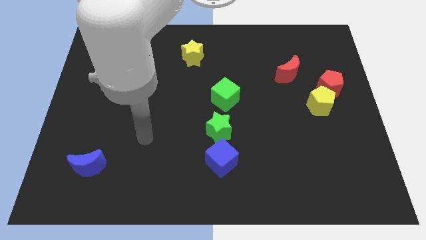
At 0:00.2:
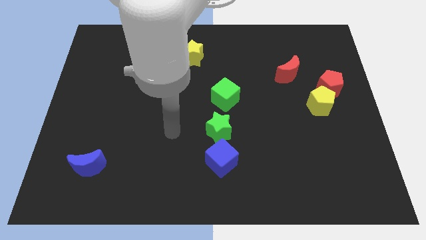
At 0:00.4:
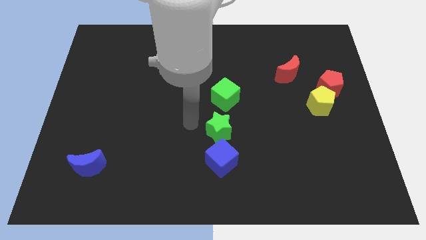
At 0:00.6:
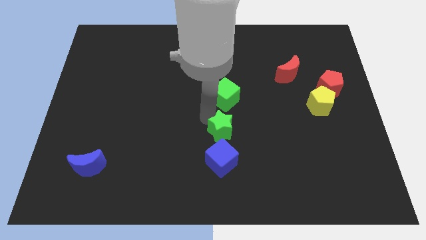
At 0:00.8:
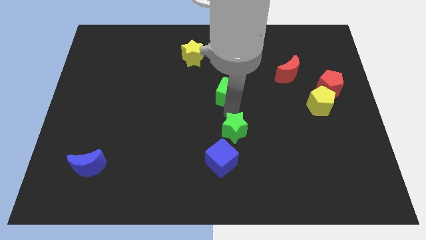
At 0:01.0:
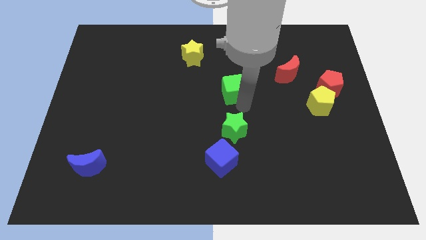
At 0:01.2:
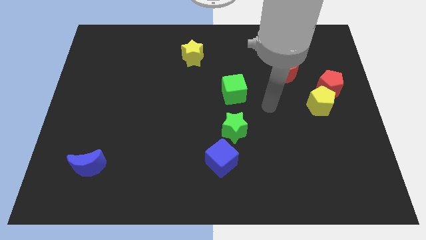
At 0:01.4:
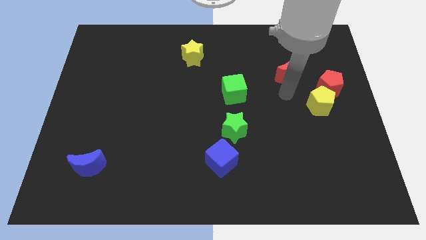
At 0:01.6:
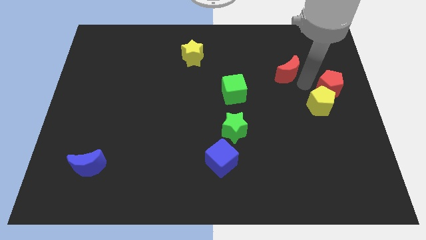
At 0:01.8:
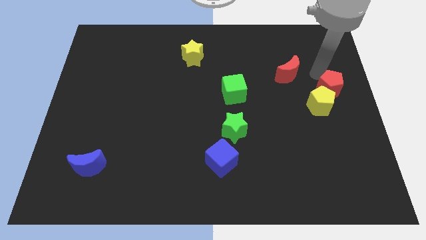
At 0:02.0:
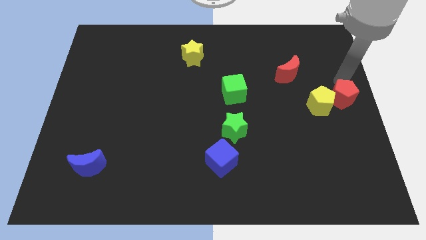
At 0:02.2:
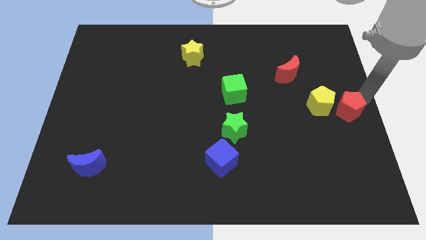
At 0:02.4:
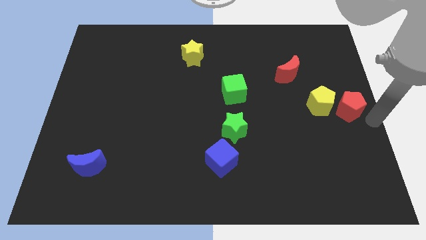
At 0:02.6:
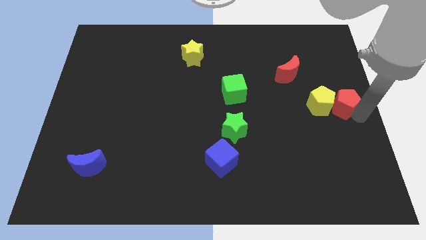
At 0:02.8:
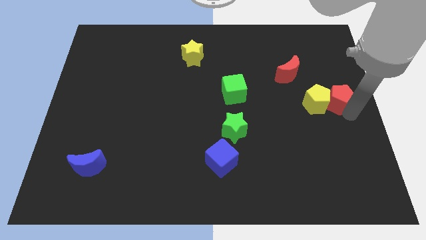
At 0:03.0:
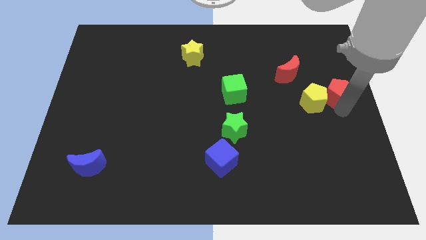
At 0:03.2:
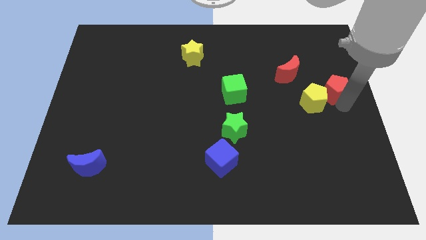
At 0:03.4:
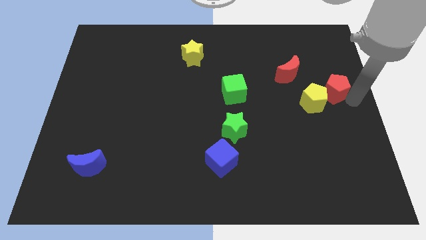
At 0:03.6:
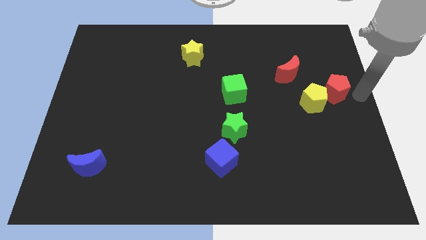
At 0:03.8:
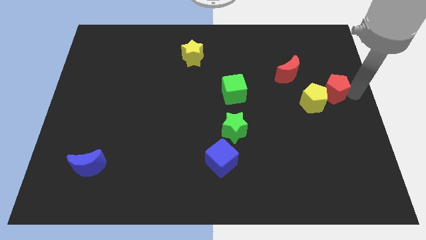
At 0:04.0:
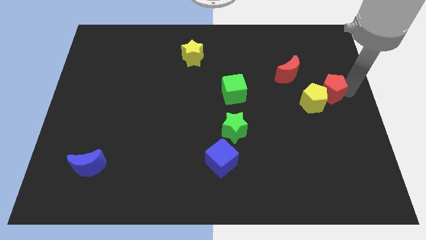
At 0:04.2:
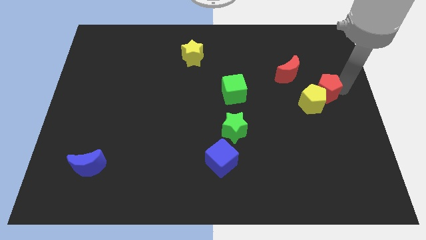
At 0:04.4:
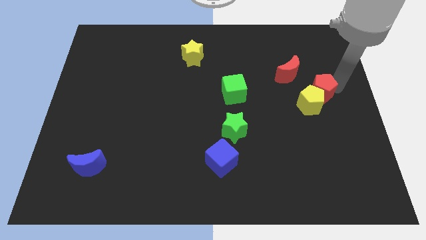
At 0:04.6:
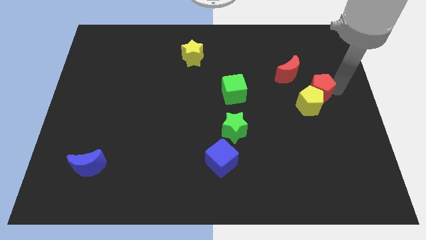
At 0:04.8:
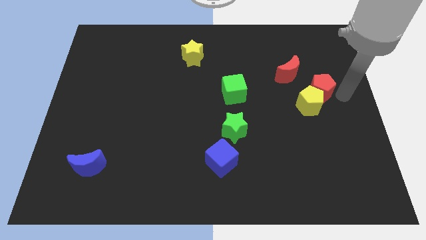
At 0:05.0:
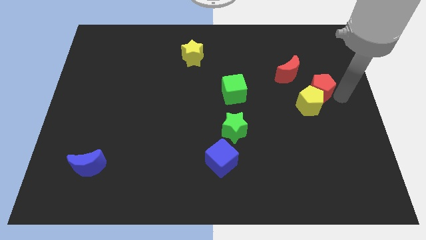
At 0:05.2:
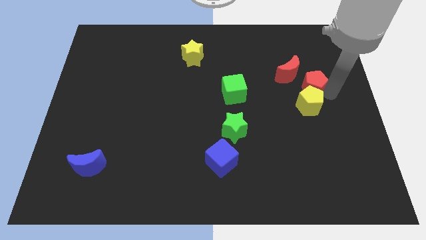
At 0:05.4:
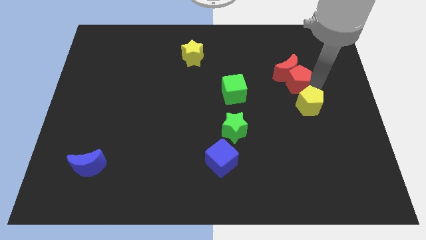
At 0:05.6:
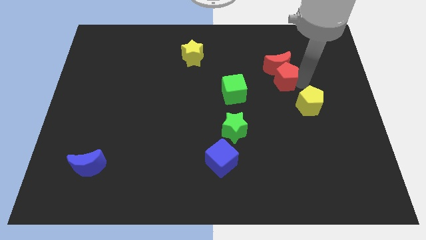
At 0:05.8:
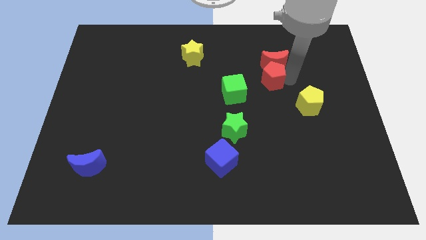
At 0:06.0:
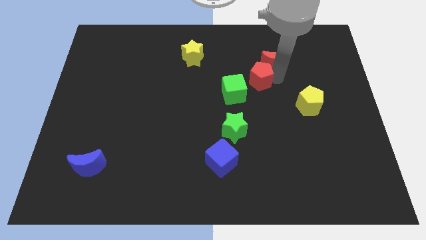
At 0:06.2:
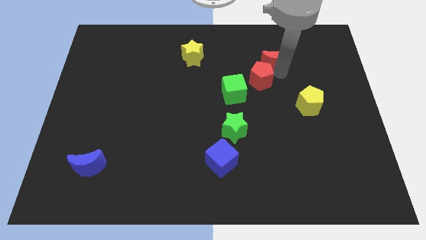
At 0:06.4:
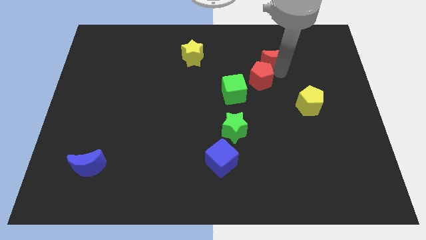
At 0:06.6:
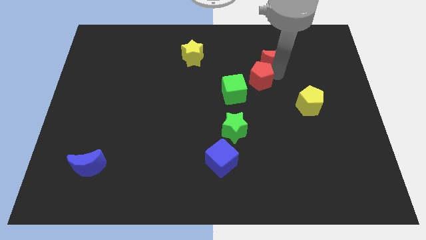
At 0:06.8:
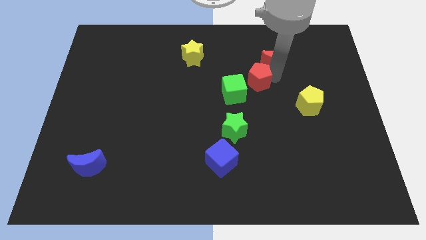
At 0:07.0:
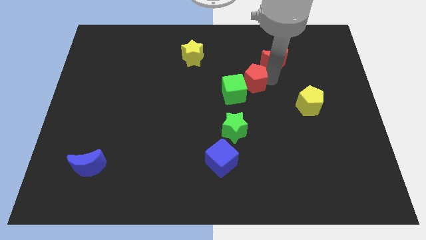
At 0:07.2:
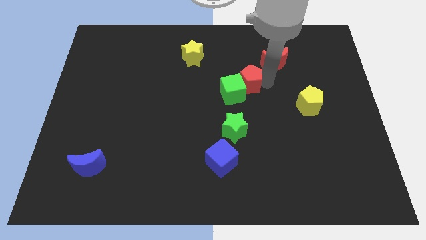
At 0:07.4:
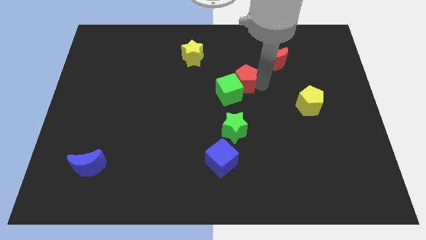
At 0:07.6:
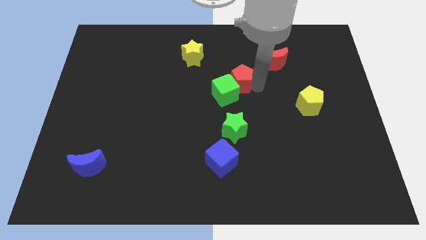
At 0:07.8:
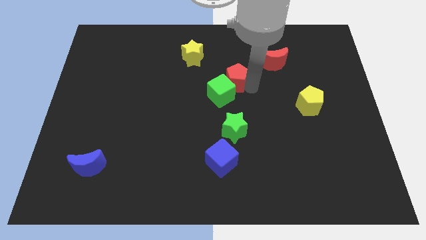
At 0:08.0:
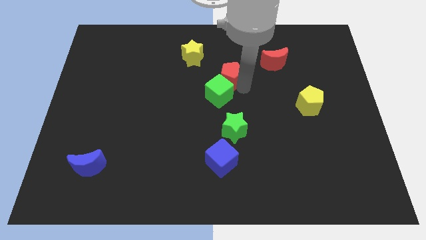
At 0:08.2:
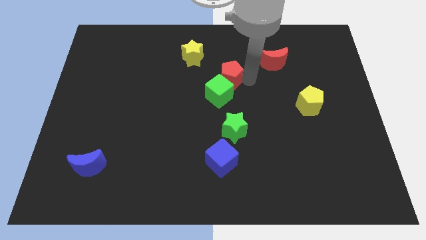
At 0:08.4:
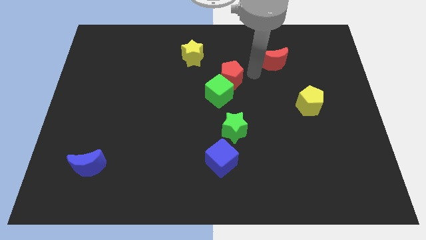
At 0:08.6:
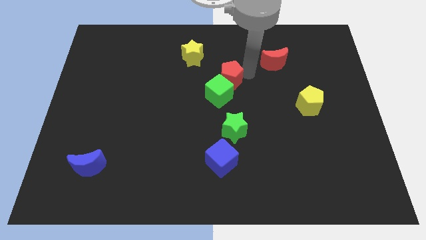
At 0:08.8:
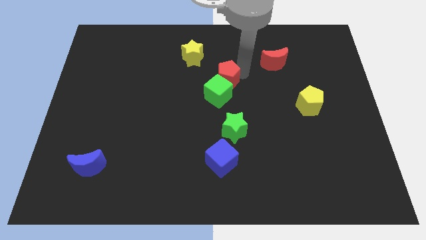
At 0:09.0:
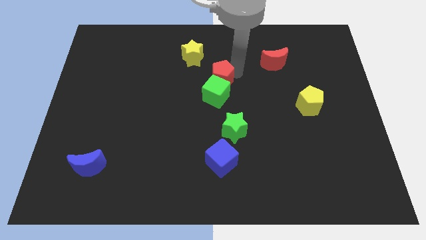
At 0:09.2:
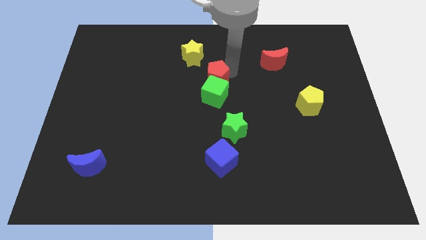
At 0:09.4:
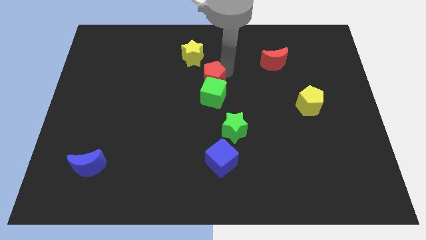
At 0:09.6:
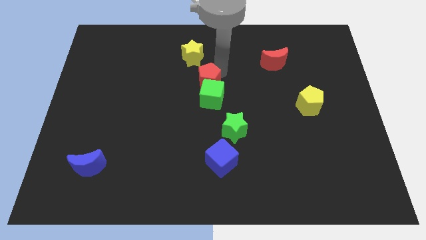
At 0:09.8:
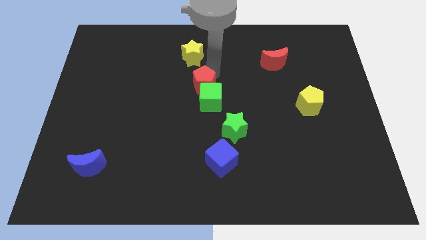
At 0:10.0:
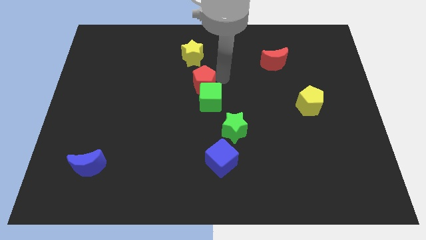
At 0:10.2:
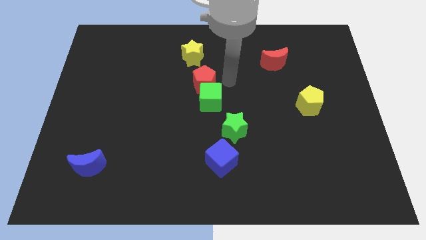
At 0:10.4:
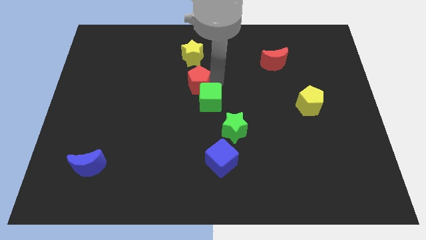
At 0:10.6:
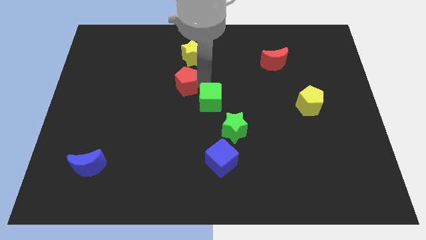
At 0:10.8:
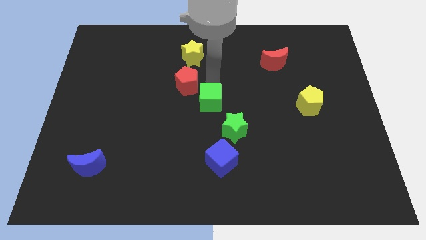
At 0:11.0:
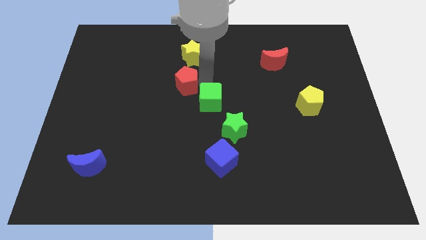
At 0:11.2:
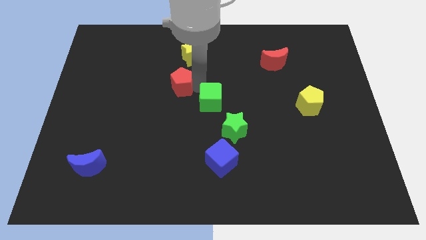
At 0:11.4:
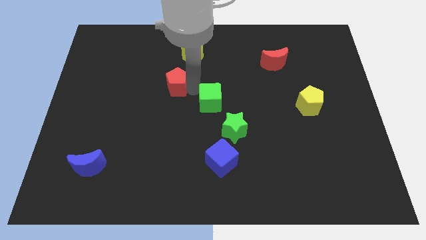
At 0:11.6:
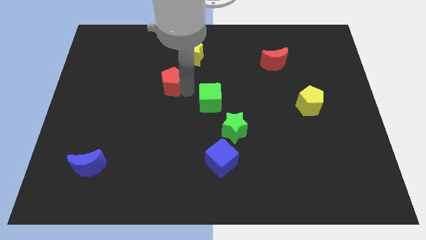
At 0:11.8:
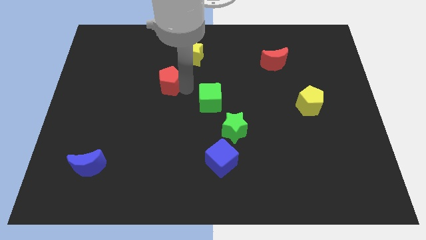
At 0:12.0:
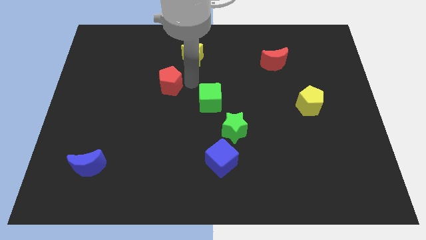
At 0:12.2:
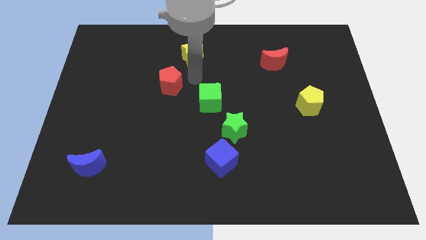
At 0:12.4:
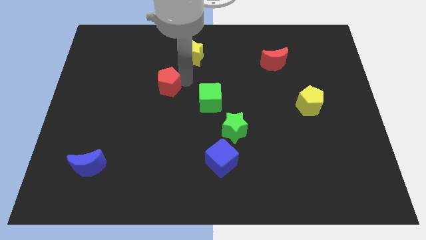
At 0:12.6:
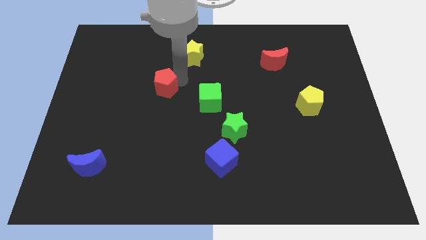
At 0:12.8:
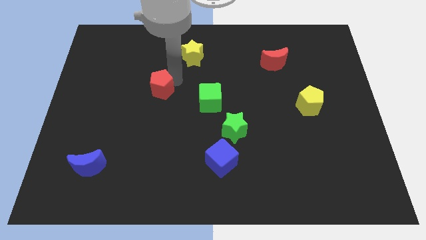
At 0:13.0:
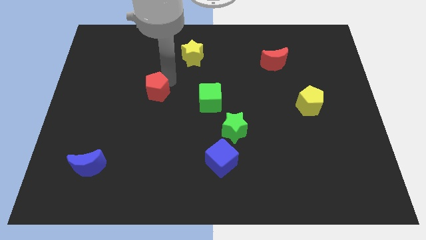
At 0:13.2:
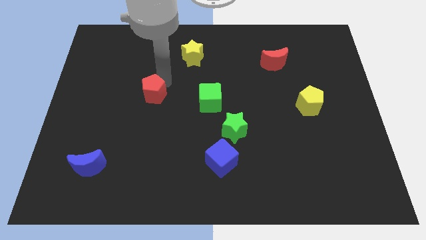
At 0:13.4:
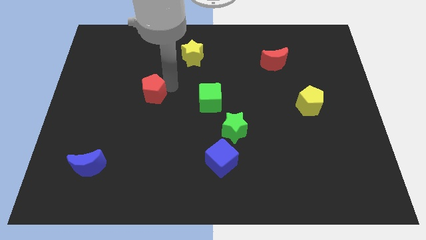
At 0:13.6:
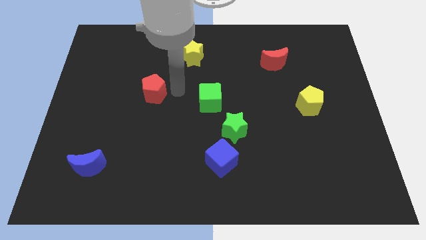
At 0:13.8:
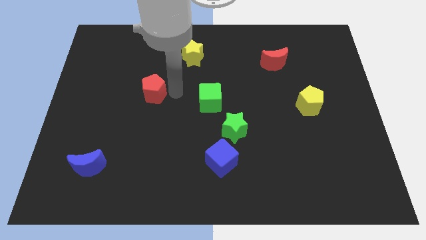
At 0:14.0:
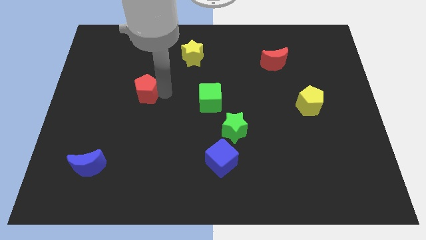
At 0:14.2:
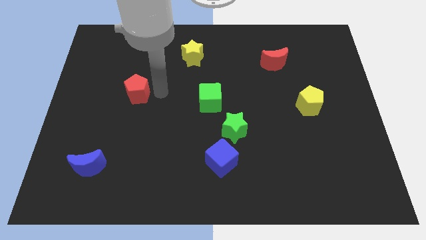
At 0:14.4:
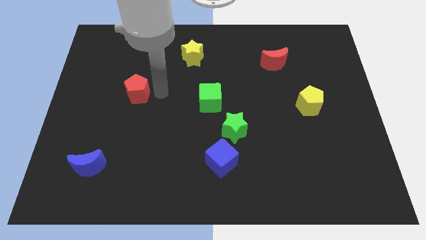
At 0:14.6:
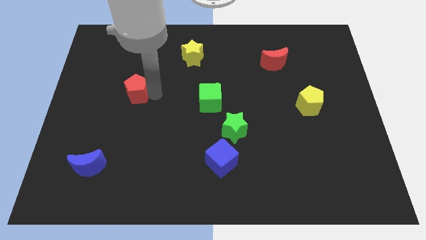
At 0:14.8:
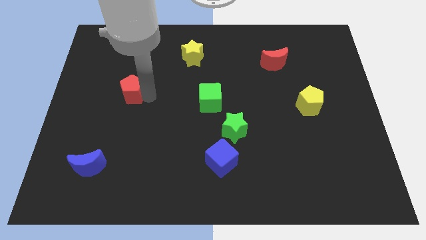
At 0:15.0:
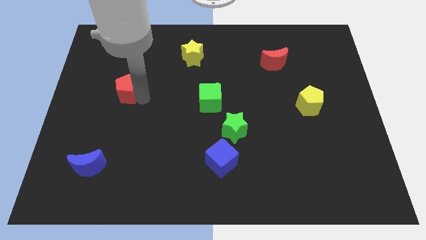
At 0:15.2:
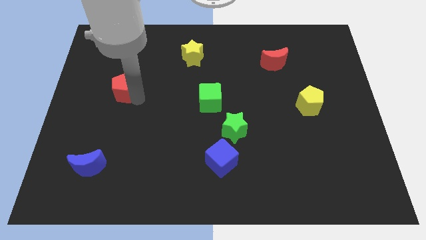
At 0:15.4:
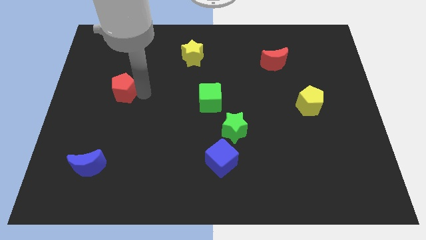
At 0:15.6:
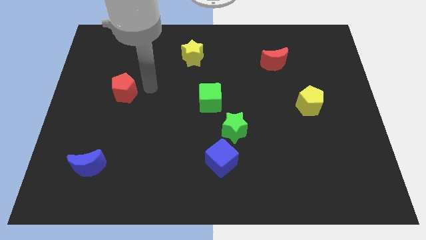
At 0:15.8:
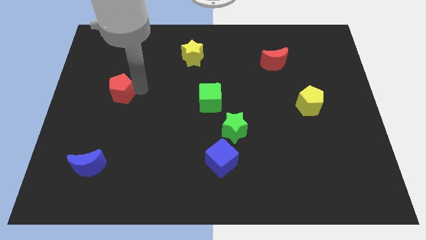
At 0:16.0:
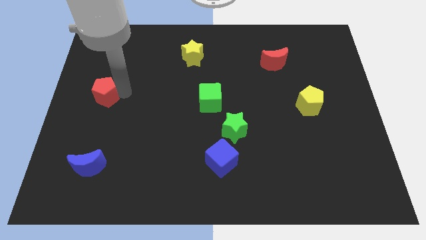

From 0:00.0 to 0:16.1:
move the red pentagon to the left side of the board
